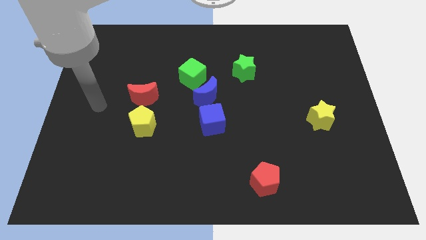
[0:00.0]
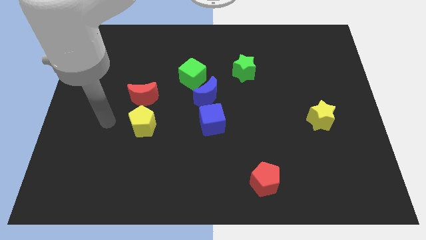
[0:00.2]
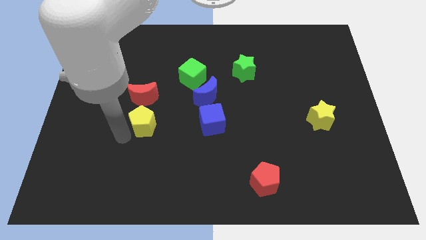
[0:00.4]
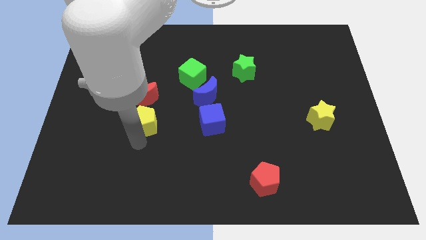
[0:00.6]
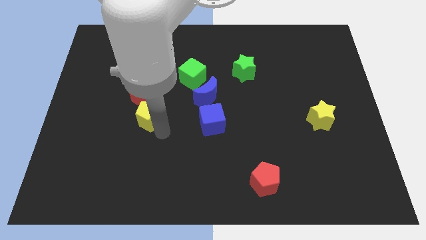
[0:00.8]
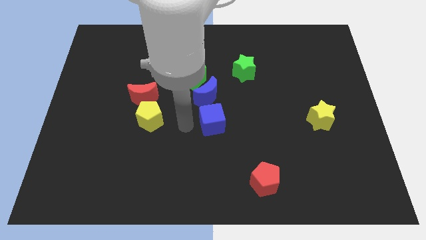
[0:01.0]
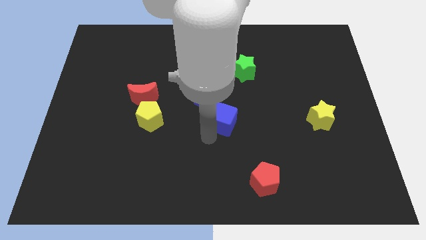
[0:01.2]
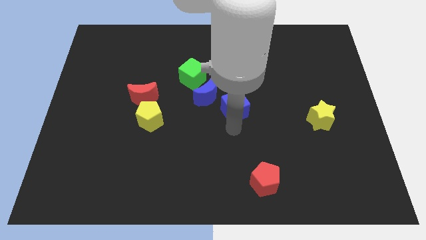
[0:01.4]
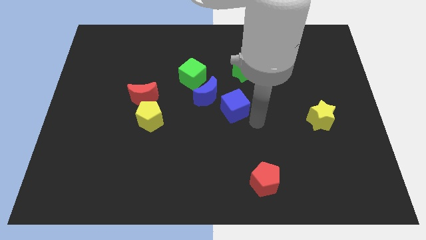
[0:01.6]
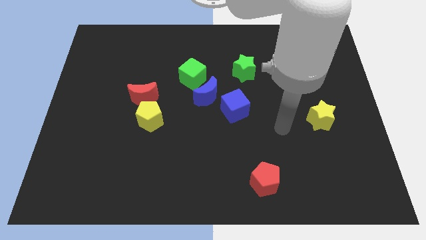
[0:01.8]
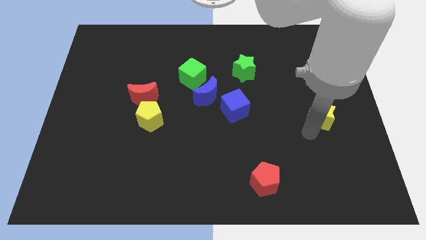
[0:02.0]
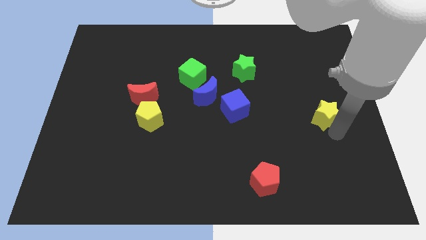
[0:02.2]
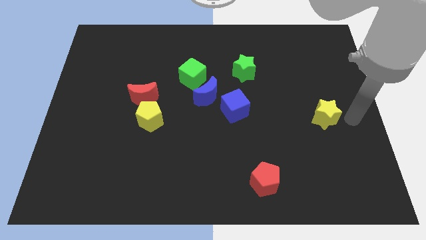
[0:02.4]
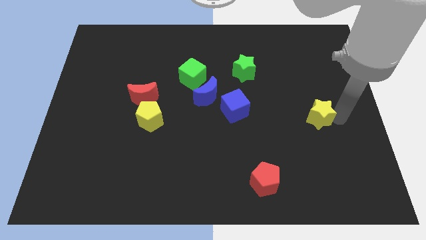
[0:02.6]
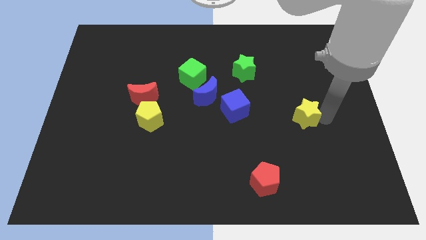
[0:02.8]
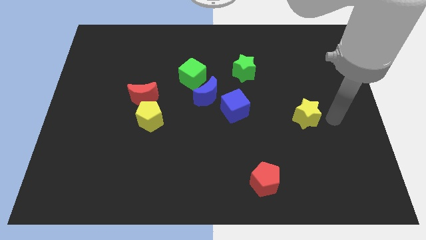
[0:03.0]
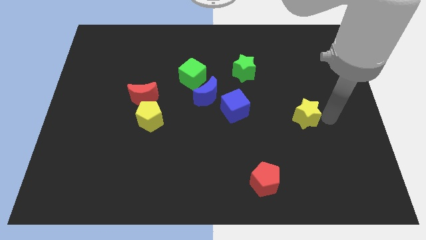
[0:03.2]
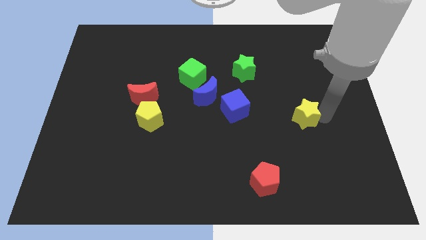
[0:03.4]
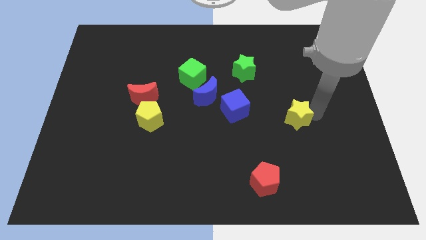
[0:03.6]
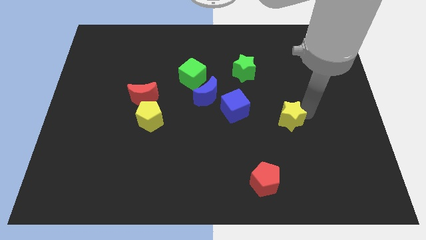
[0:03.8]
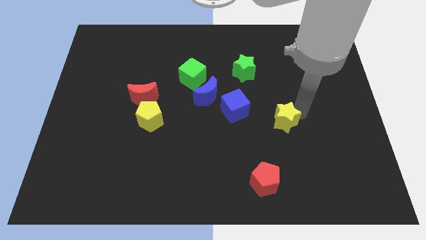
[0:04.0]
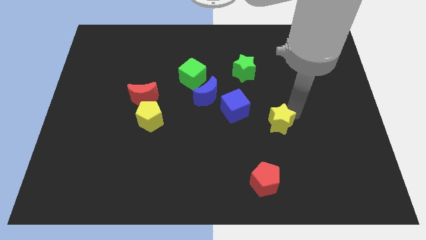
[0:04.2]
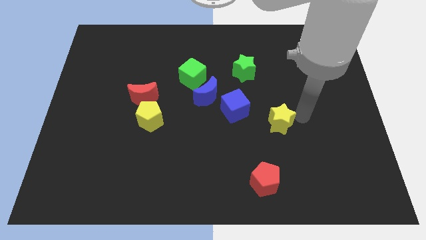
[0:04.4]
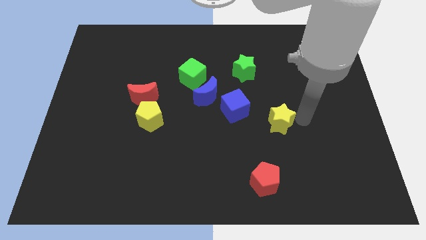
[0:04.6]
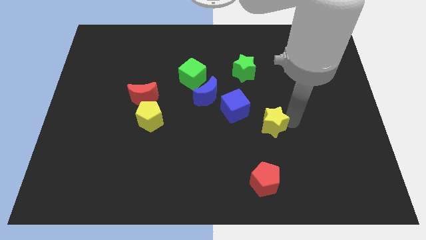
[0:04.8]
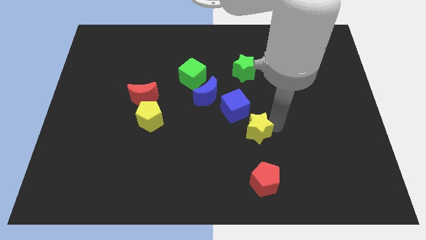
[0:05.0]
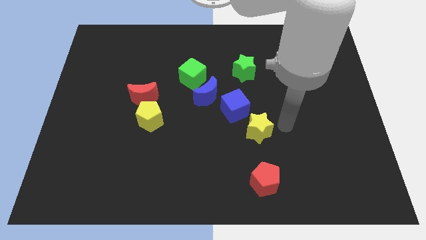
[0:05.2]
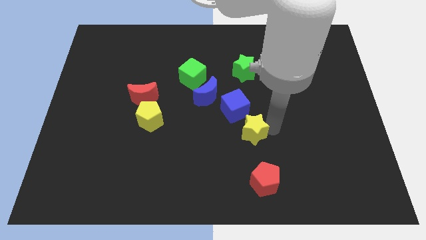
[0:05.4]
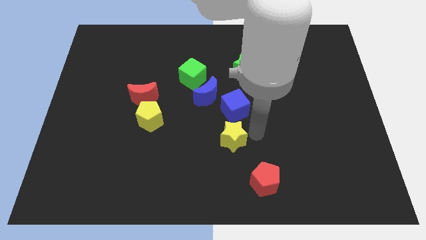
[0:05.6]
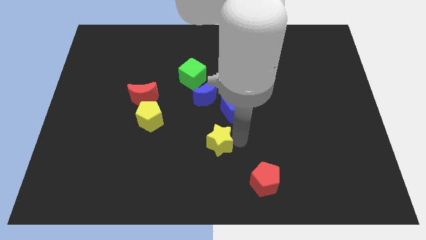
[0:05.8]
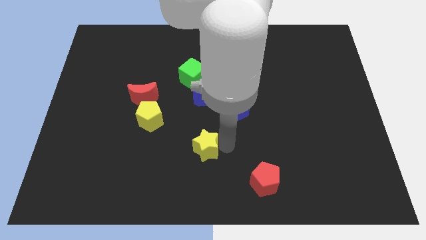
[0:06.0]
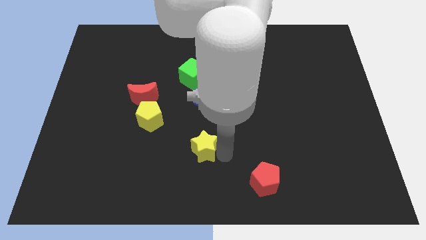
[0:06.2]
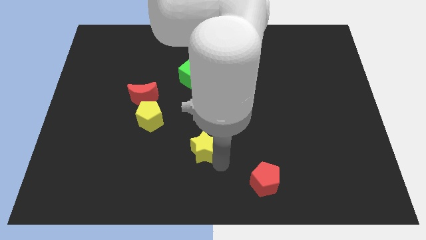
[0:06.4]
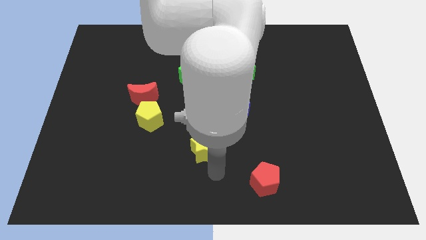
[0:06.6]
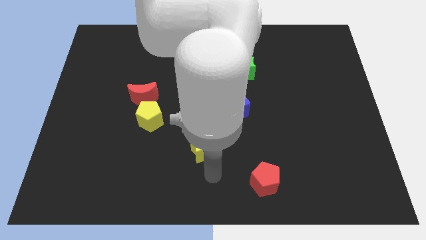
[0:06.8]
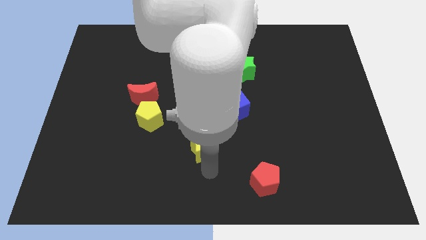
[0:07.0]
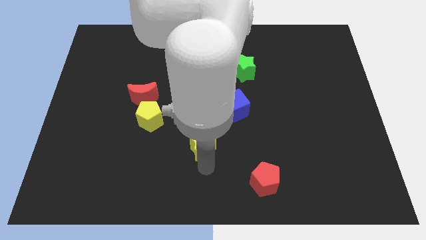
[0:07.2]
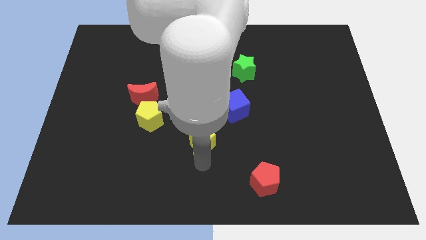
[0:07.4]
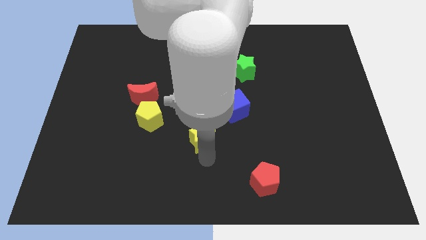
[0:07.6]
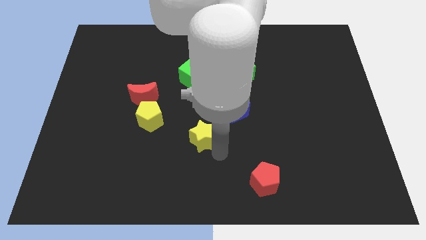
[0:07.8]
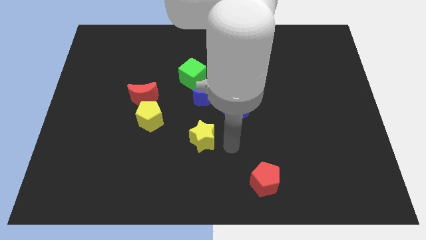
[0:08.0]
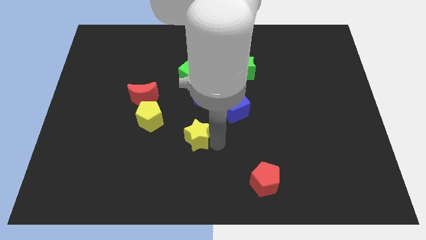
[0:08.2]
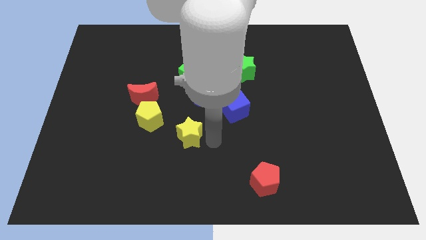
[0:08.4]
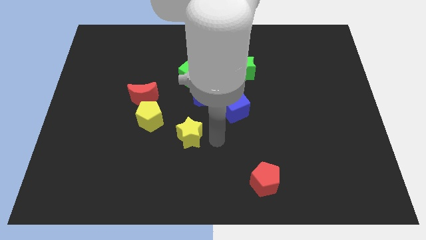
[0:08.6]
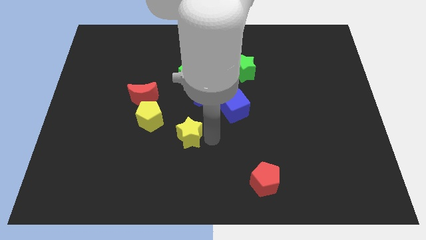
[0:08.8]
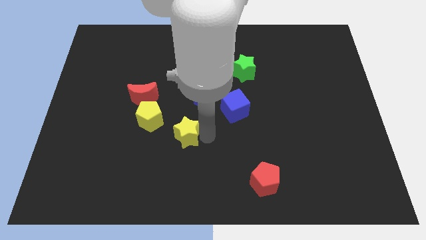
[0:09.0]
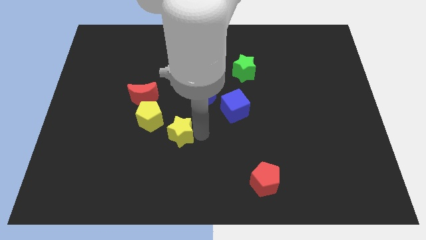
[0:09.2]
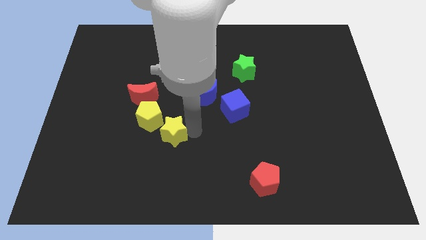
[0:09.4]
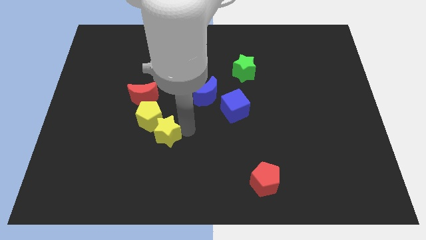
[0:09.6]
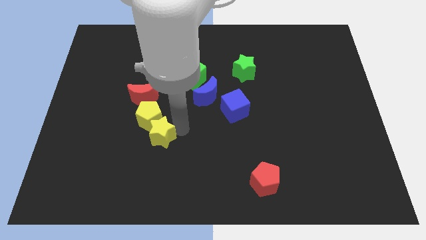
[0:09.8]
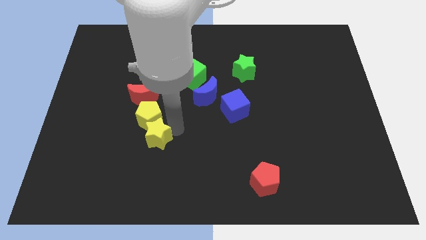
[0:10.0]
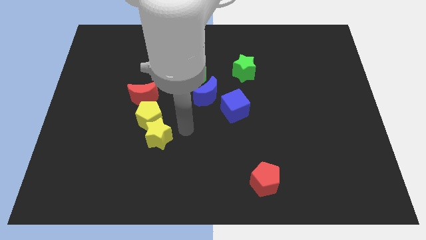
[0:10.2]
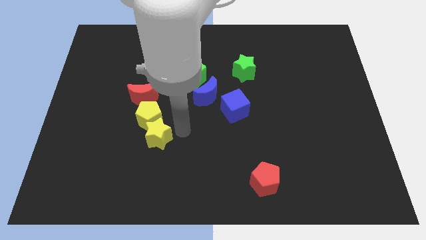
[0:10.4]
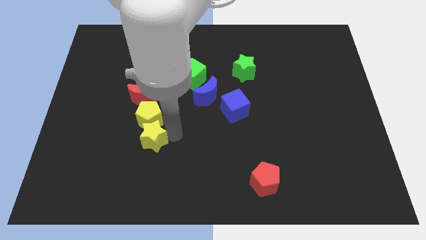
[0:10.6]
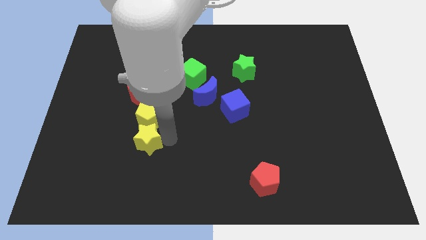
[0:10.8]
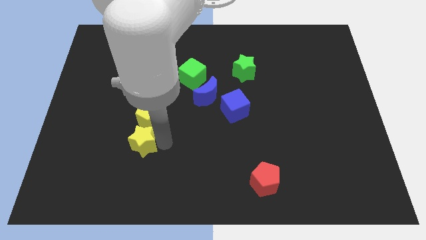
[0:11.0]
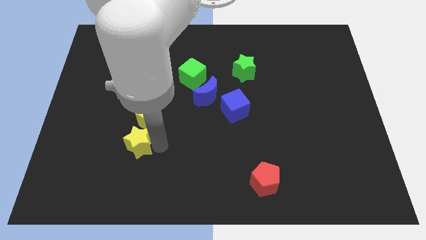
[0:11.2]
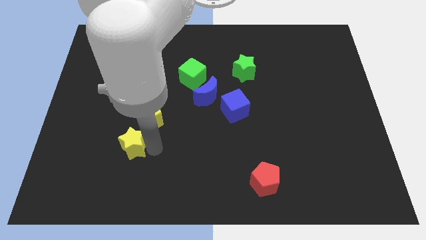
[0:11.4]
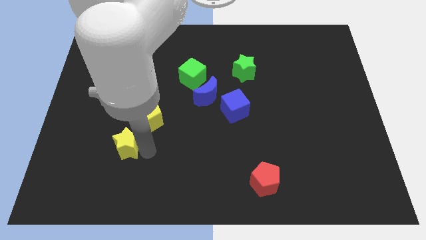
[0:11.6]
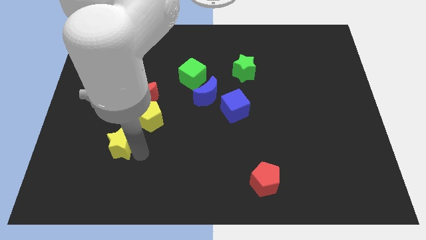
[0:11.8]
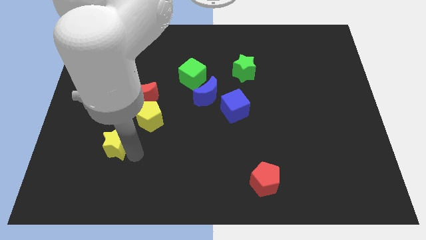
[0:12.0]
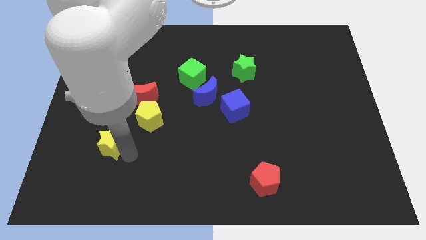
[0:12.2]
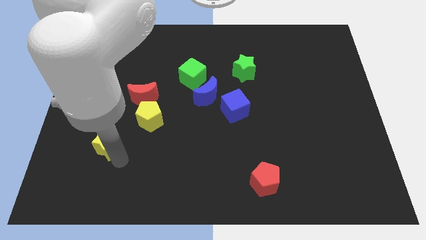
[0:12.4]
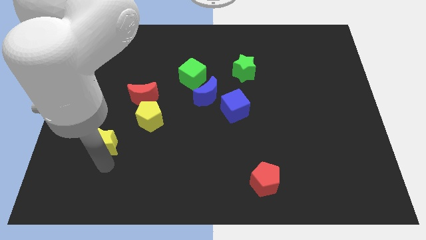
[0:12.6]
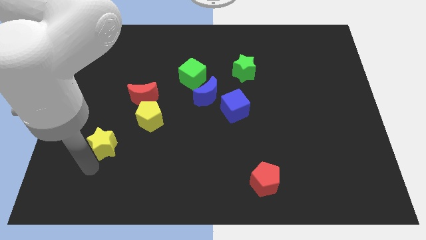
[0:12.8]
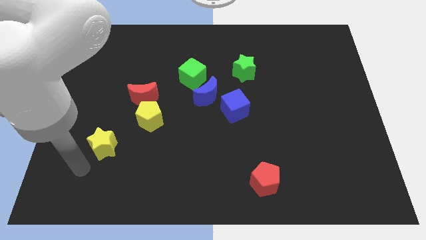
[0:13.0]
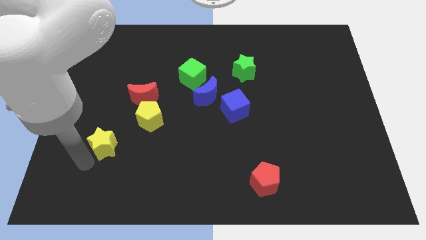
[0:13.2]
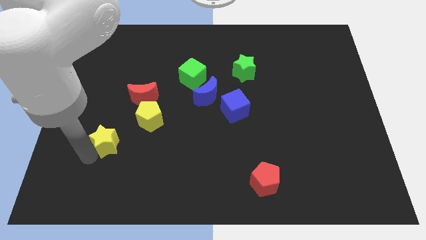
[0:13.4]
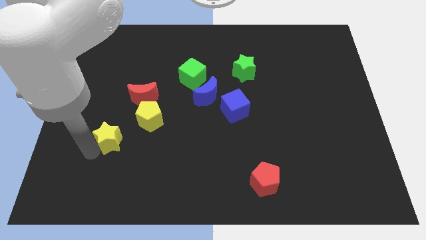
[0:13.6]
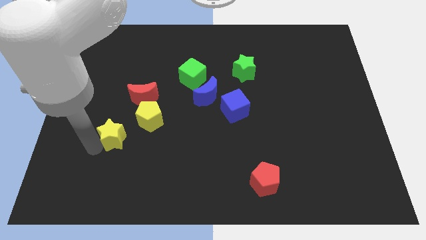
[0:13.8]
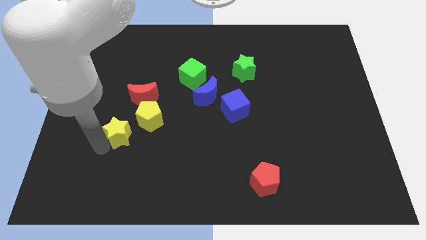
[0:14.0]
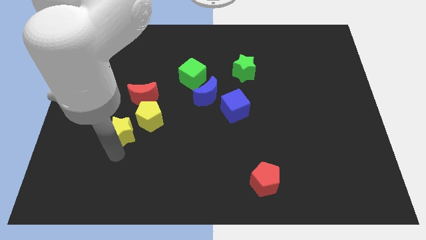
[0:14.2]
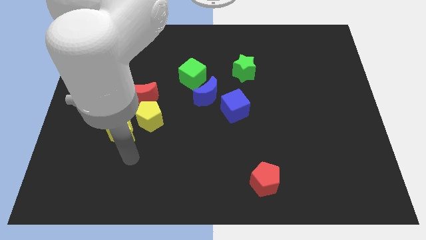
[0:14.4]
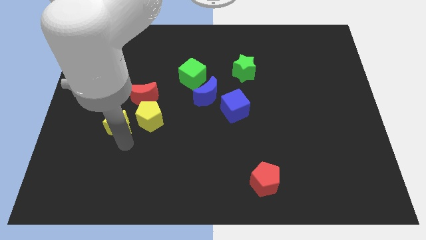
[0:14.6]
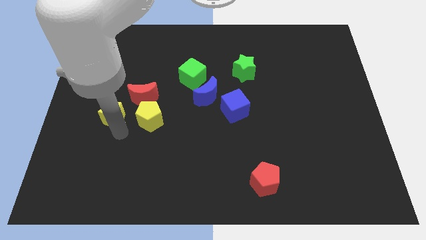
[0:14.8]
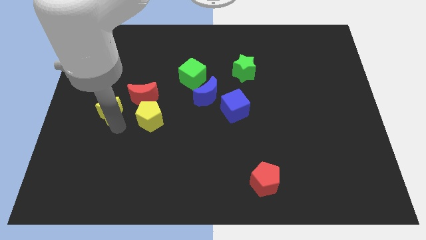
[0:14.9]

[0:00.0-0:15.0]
push the yellow star left of the red moon
